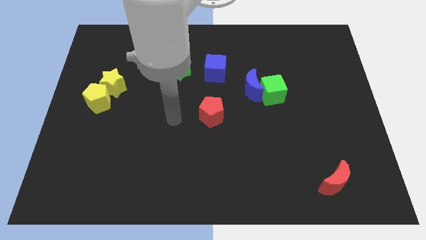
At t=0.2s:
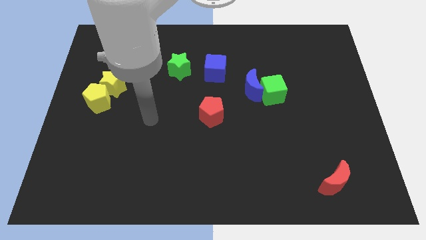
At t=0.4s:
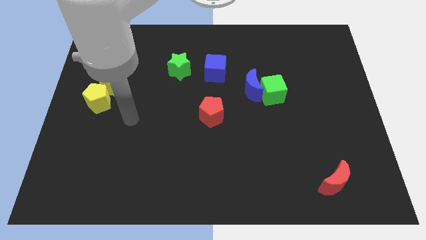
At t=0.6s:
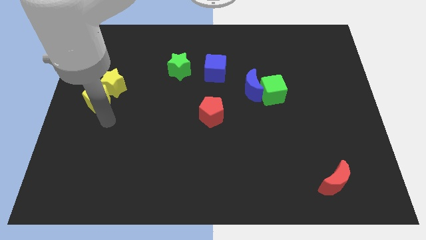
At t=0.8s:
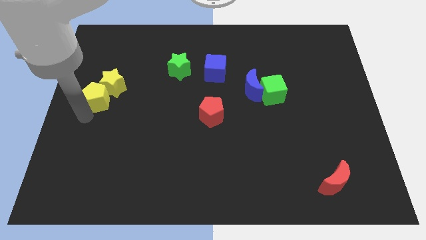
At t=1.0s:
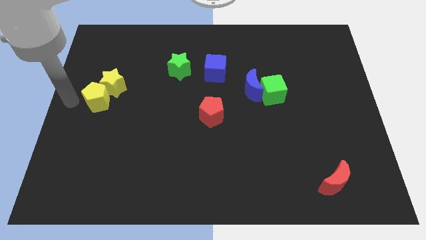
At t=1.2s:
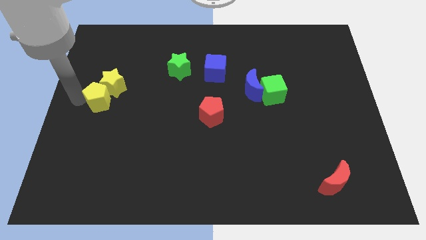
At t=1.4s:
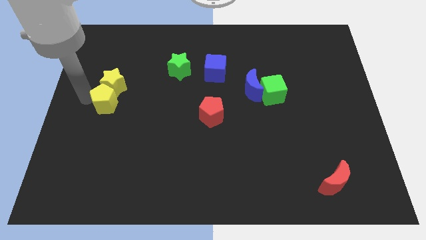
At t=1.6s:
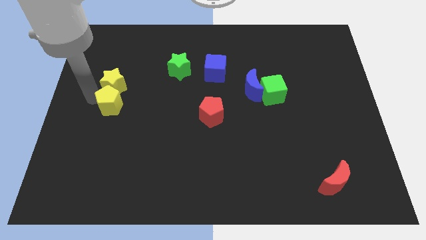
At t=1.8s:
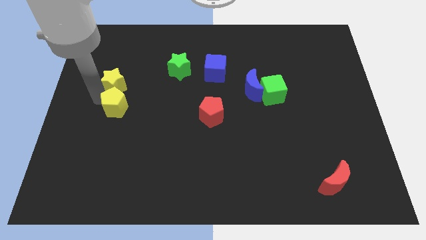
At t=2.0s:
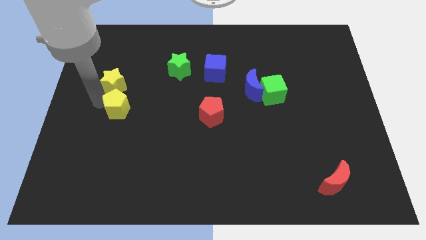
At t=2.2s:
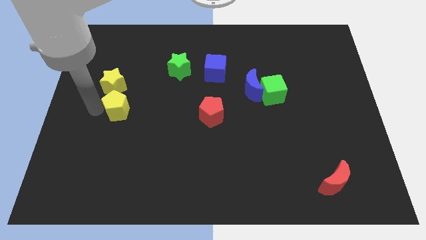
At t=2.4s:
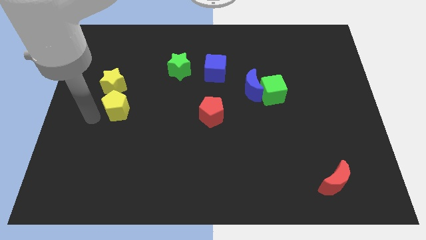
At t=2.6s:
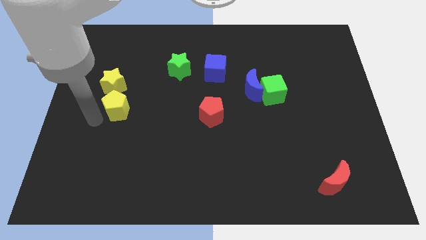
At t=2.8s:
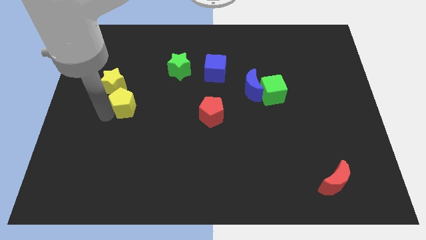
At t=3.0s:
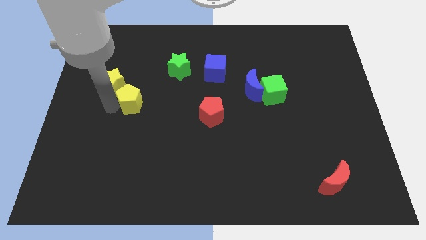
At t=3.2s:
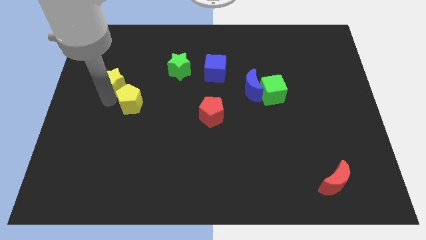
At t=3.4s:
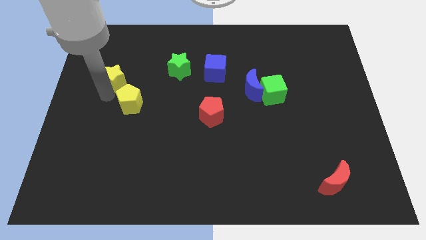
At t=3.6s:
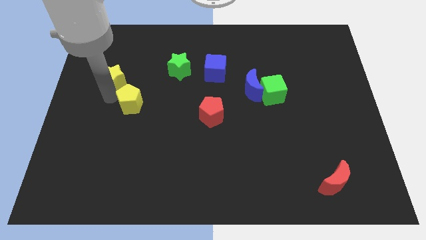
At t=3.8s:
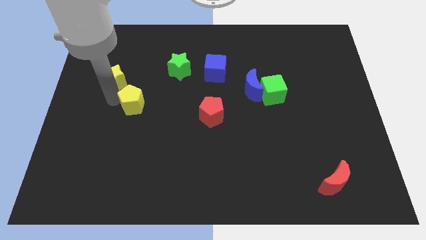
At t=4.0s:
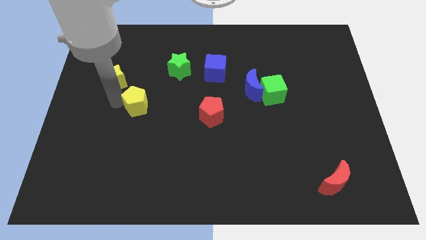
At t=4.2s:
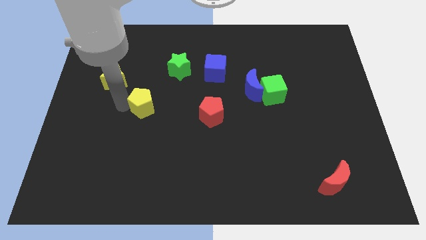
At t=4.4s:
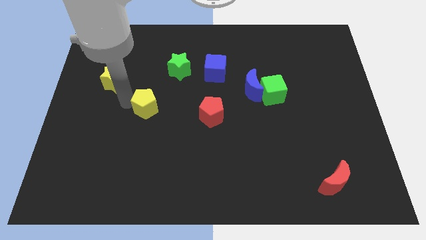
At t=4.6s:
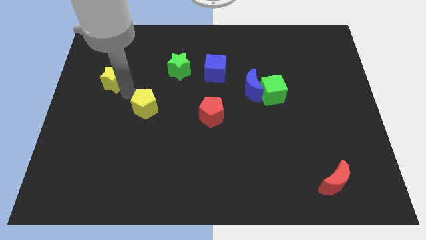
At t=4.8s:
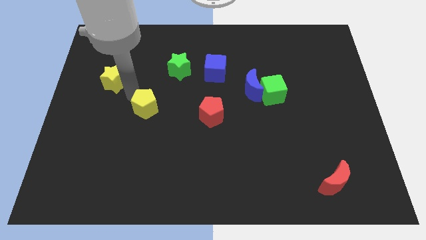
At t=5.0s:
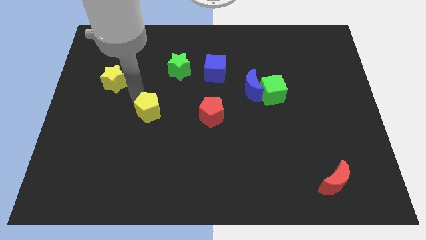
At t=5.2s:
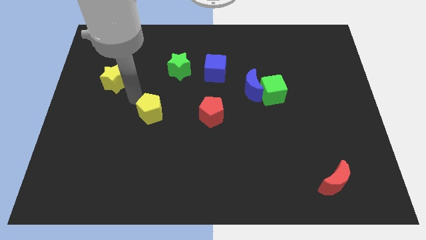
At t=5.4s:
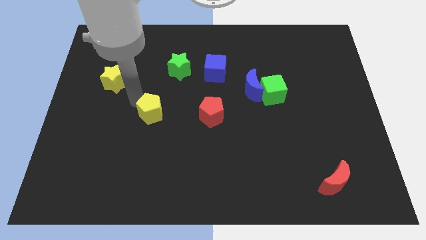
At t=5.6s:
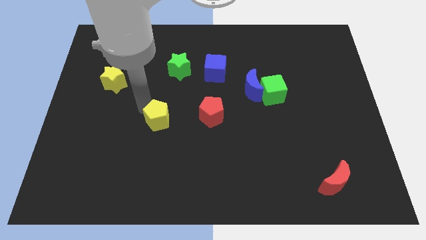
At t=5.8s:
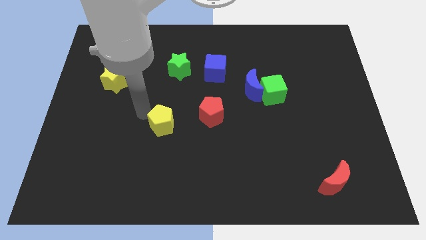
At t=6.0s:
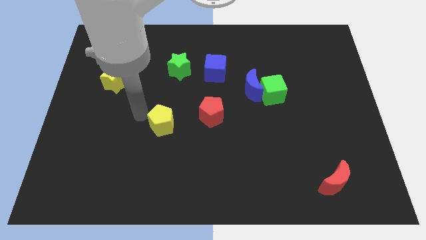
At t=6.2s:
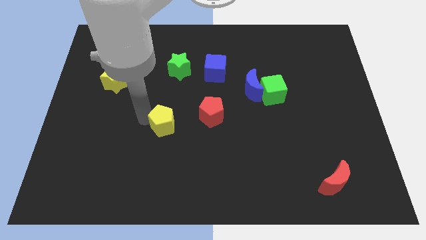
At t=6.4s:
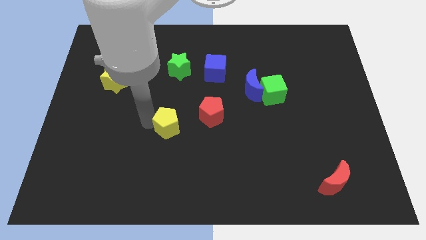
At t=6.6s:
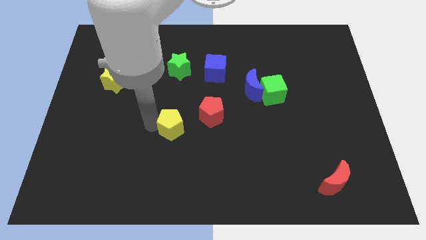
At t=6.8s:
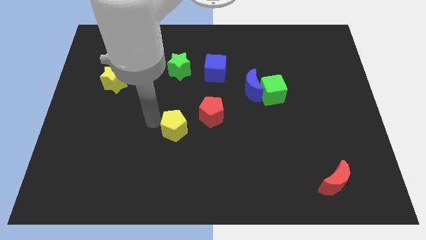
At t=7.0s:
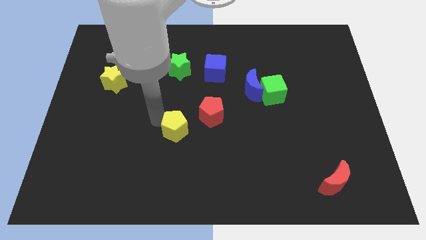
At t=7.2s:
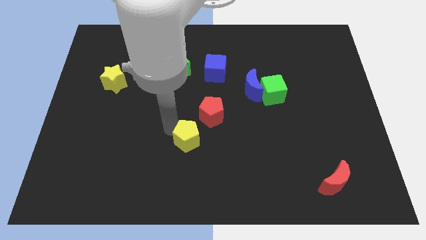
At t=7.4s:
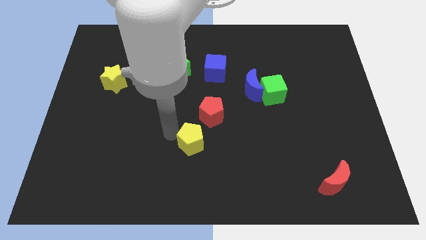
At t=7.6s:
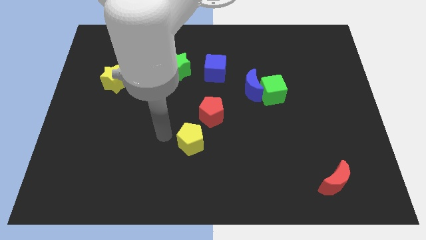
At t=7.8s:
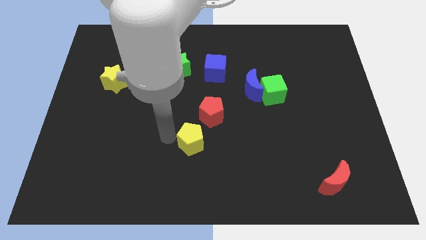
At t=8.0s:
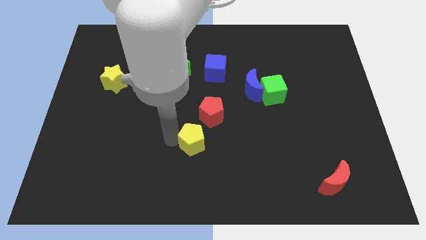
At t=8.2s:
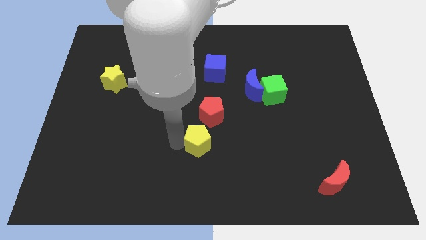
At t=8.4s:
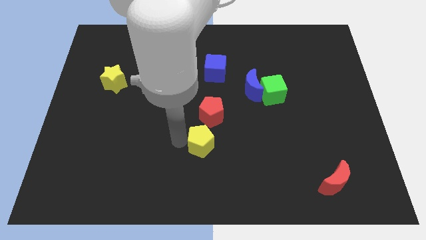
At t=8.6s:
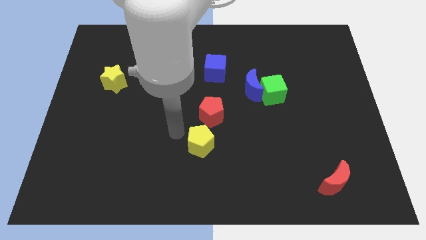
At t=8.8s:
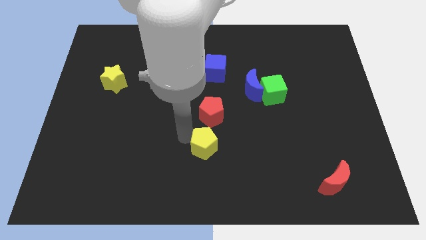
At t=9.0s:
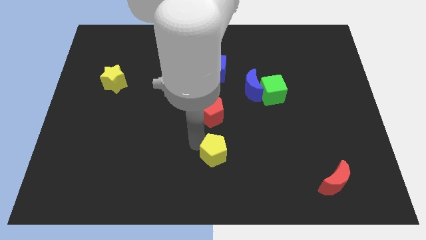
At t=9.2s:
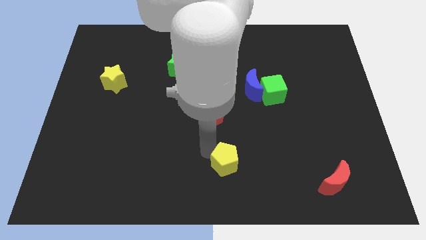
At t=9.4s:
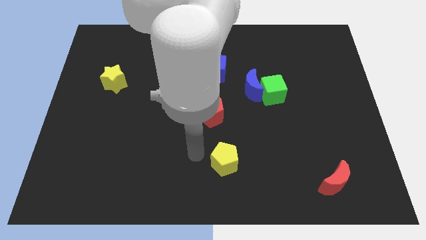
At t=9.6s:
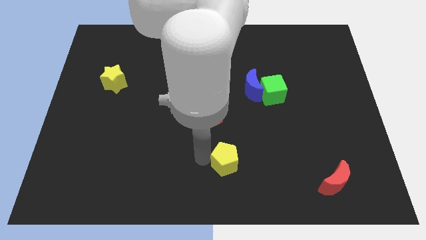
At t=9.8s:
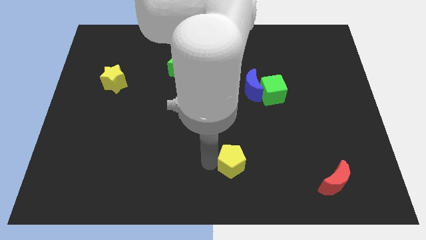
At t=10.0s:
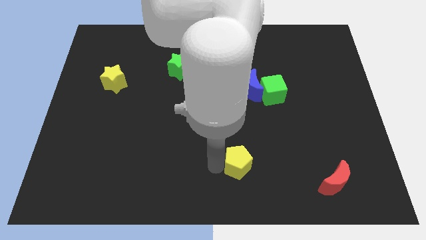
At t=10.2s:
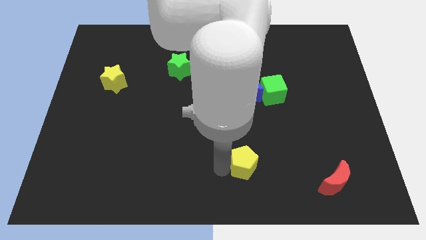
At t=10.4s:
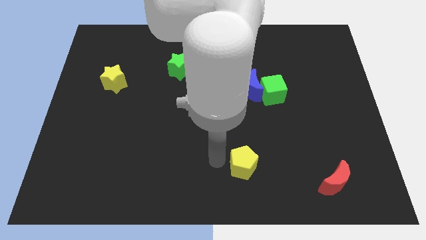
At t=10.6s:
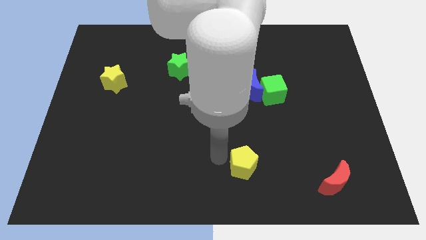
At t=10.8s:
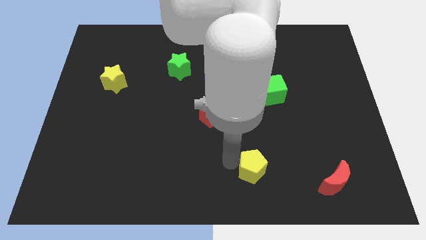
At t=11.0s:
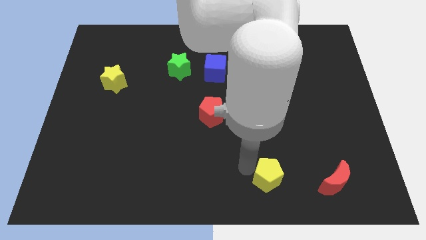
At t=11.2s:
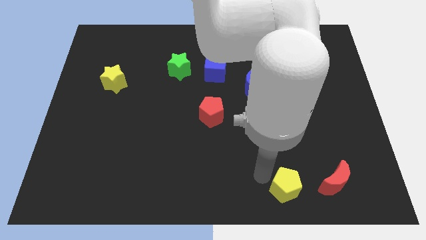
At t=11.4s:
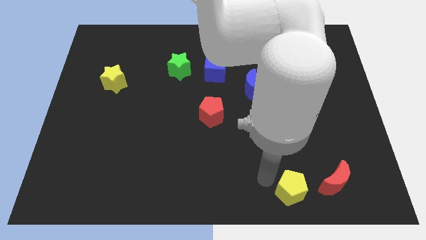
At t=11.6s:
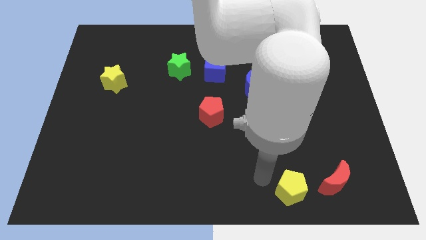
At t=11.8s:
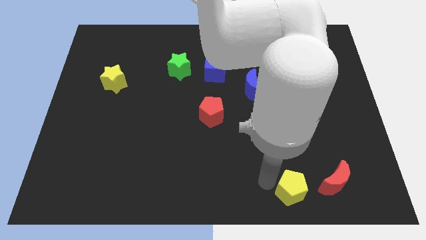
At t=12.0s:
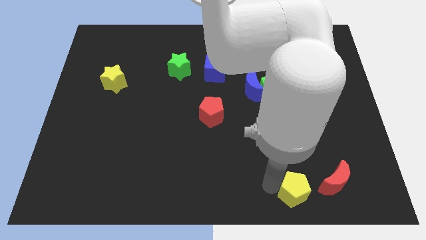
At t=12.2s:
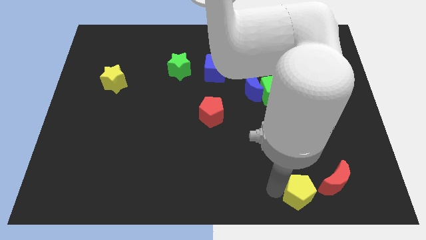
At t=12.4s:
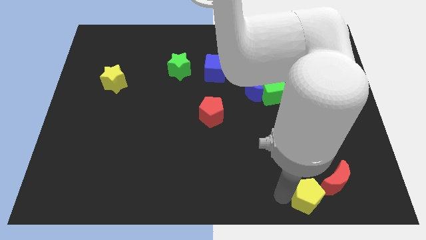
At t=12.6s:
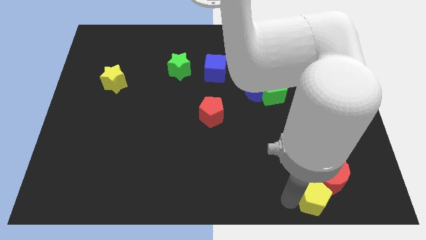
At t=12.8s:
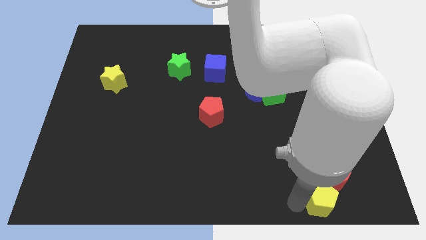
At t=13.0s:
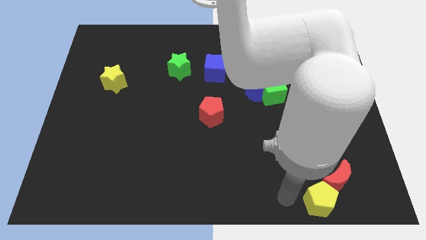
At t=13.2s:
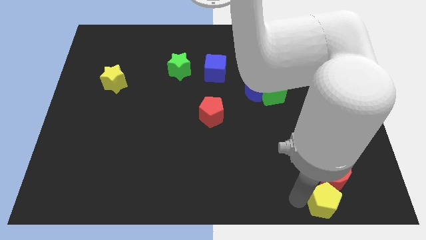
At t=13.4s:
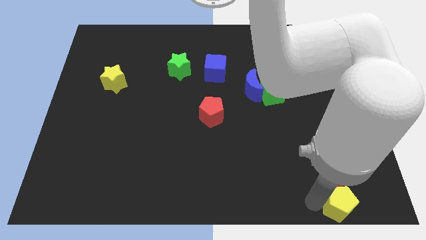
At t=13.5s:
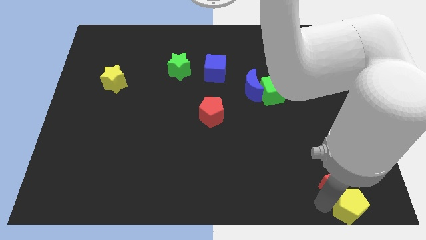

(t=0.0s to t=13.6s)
move the yellow pentagon to the bottom right corner
